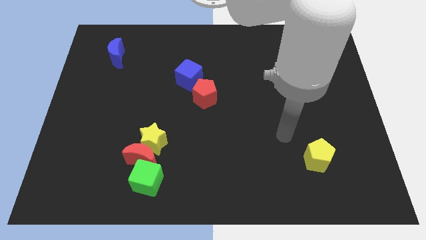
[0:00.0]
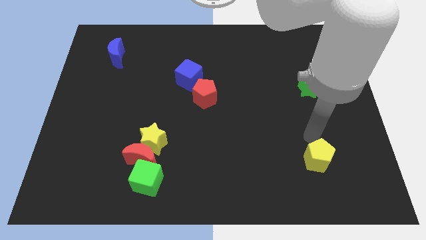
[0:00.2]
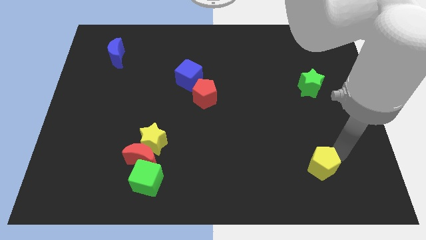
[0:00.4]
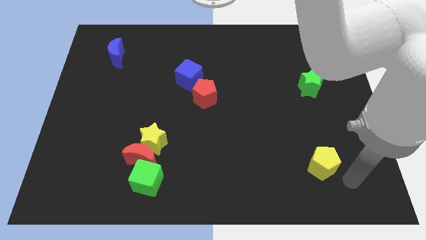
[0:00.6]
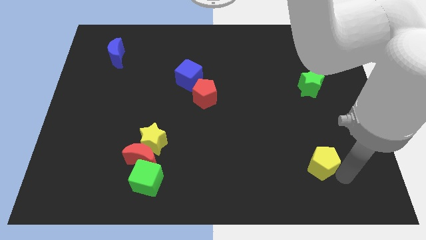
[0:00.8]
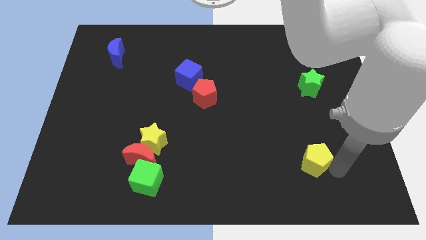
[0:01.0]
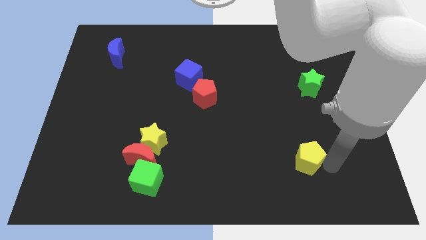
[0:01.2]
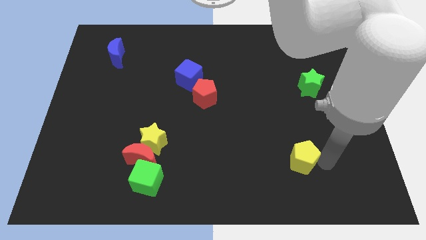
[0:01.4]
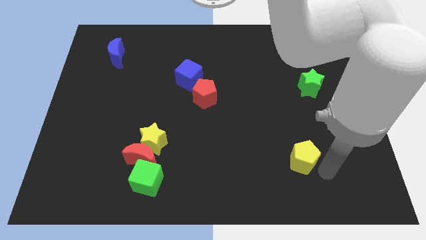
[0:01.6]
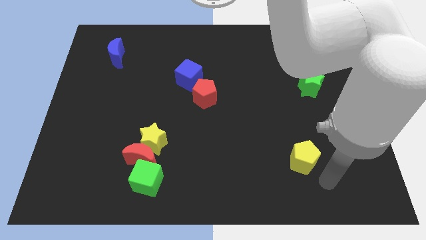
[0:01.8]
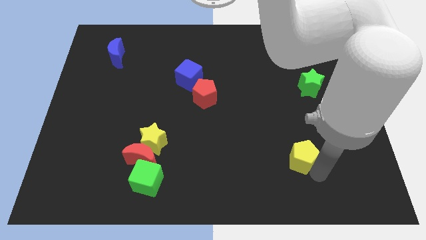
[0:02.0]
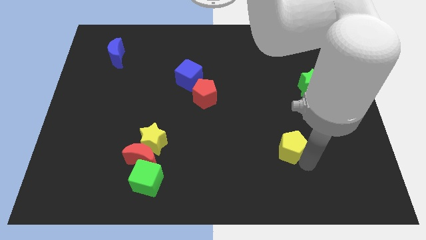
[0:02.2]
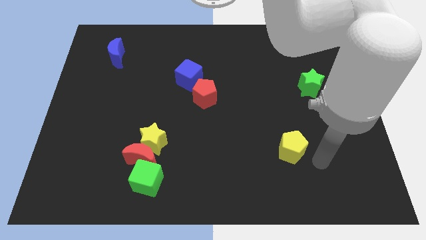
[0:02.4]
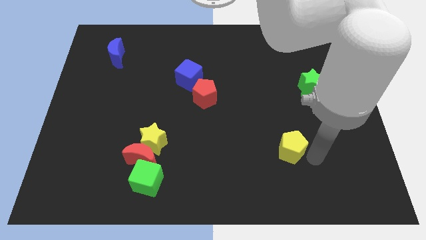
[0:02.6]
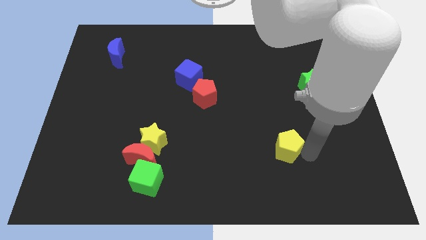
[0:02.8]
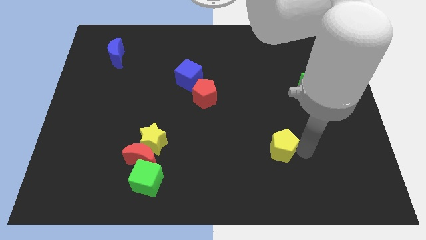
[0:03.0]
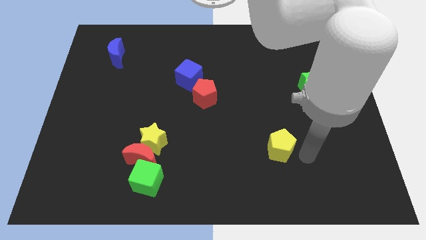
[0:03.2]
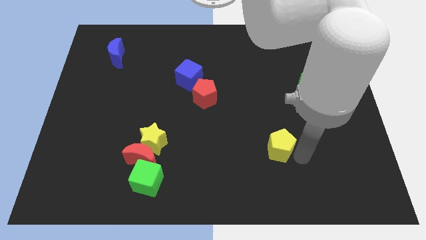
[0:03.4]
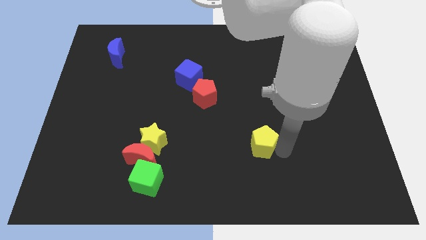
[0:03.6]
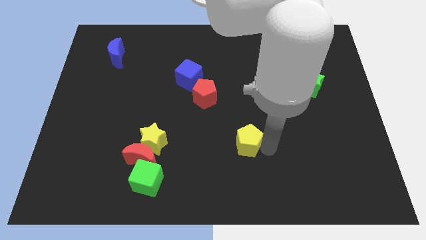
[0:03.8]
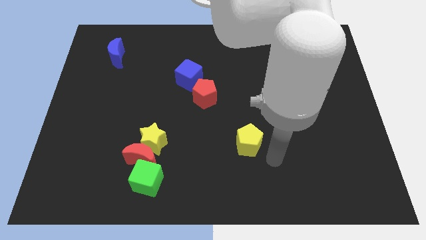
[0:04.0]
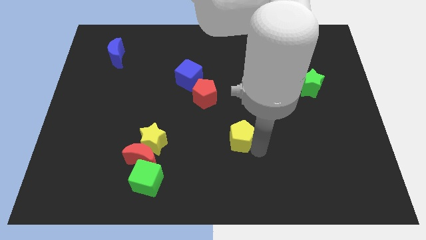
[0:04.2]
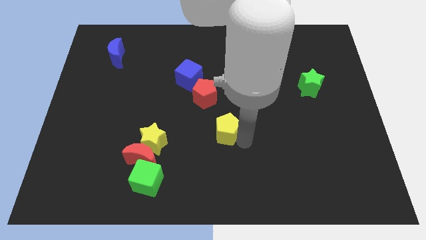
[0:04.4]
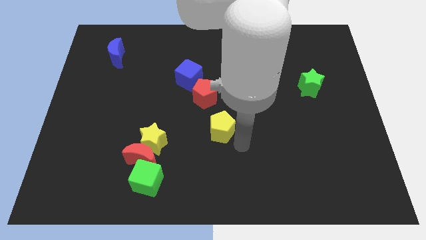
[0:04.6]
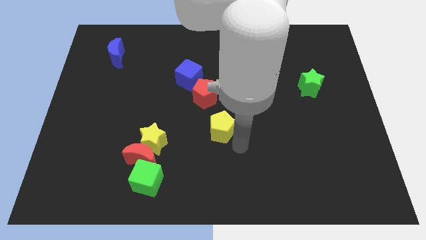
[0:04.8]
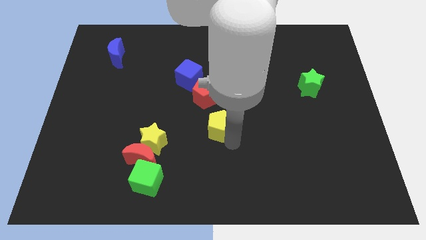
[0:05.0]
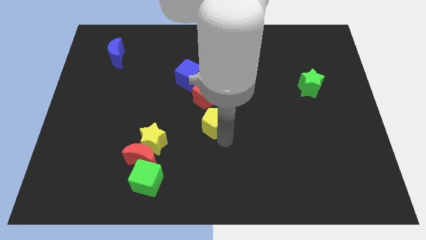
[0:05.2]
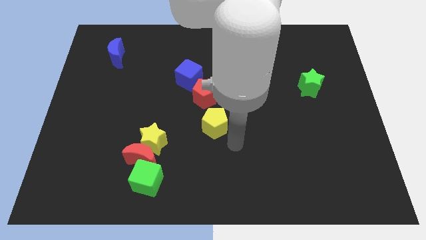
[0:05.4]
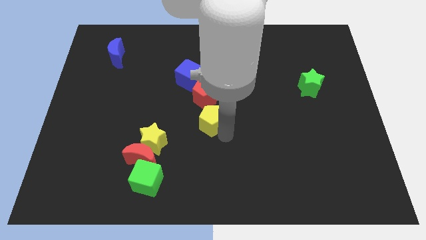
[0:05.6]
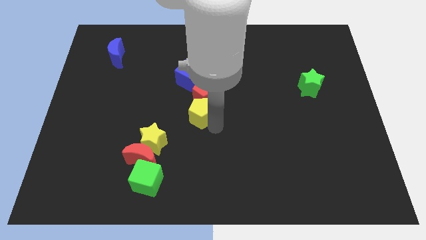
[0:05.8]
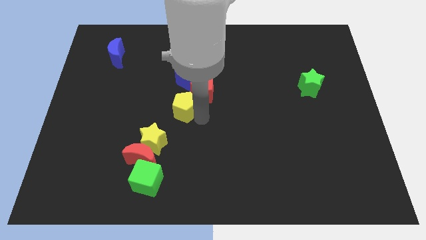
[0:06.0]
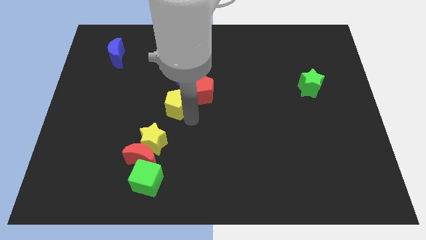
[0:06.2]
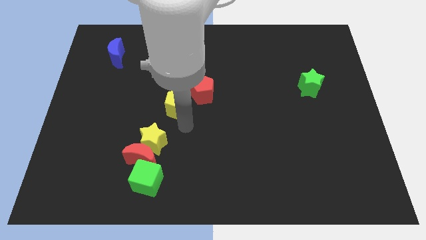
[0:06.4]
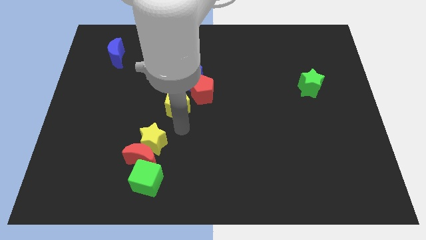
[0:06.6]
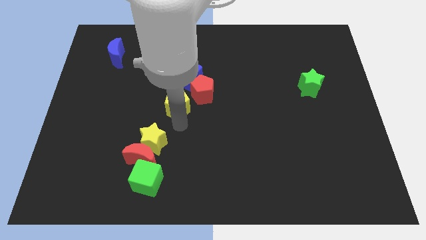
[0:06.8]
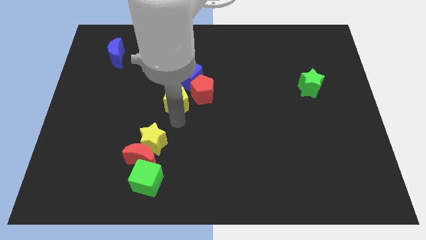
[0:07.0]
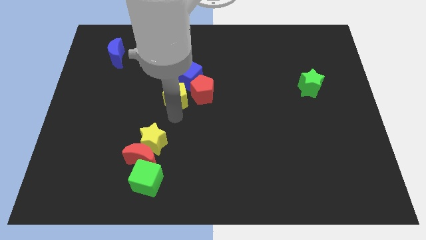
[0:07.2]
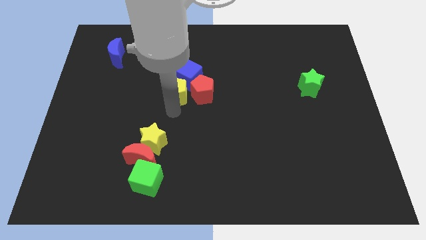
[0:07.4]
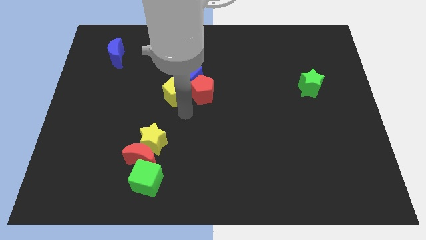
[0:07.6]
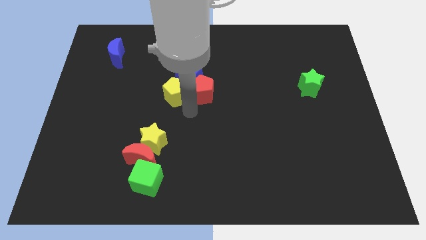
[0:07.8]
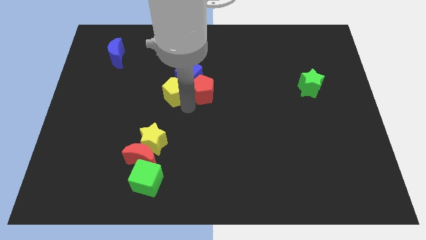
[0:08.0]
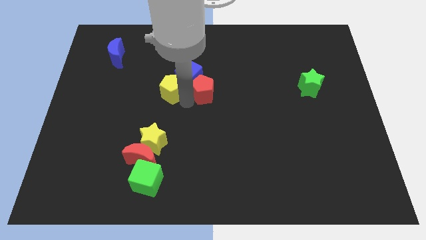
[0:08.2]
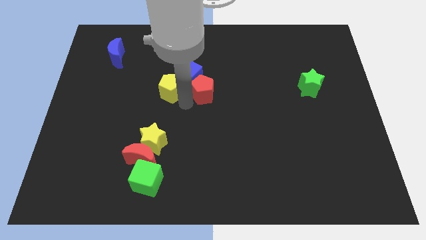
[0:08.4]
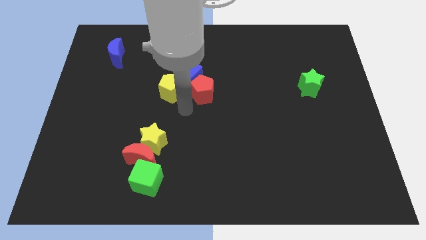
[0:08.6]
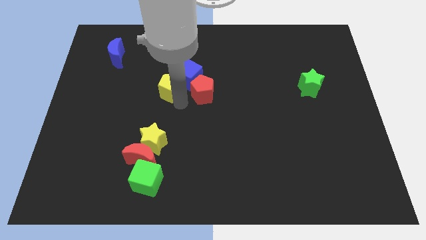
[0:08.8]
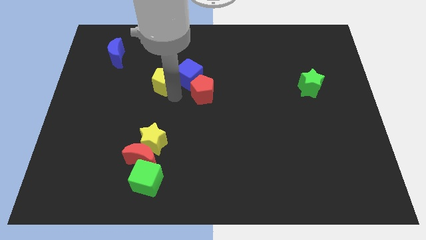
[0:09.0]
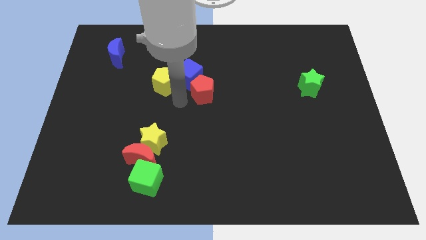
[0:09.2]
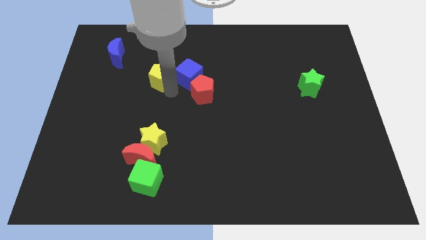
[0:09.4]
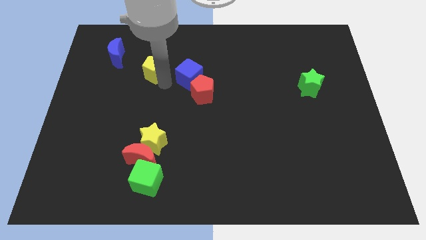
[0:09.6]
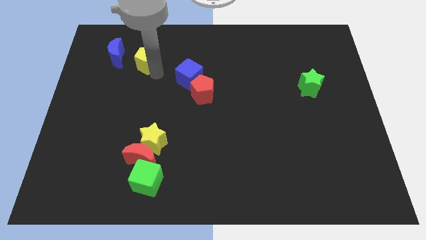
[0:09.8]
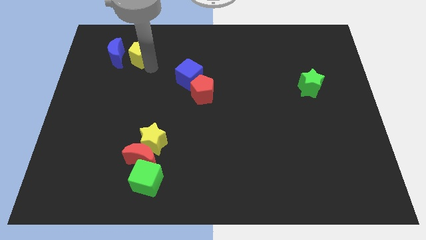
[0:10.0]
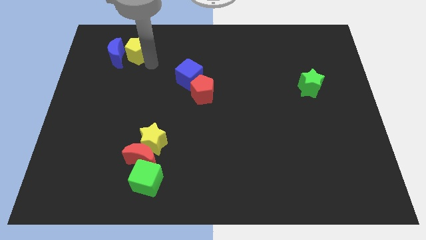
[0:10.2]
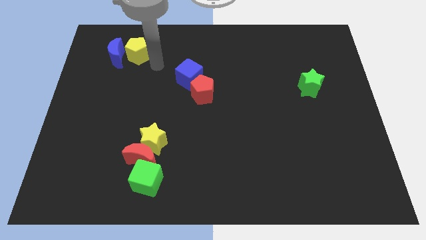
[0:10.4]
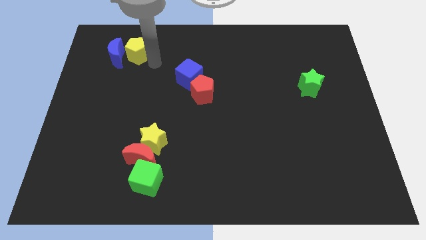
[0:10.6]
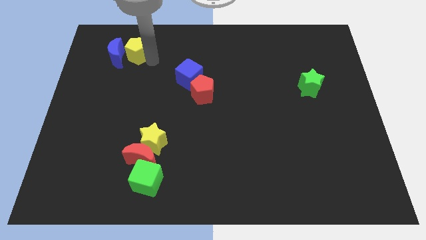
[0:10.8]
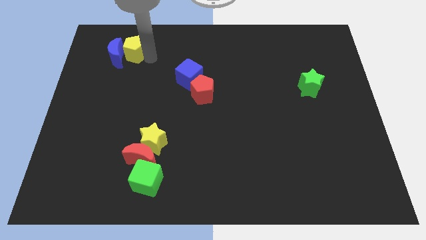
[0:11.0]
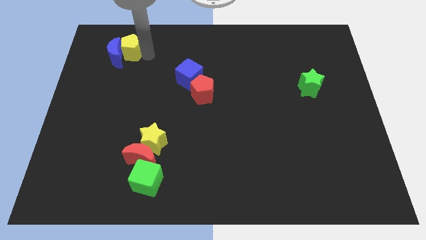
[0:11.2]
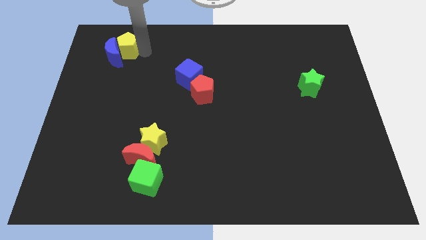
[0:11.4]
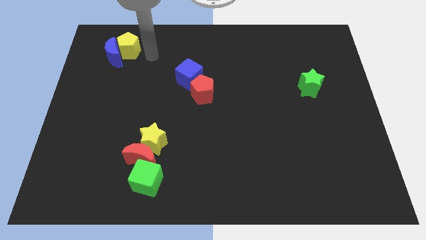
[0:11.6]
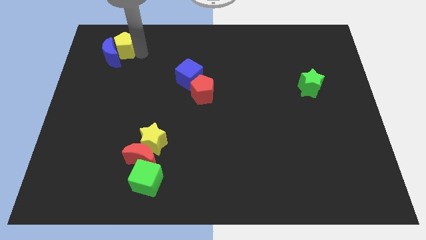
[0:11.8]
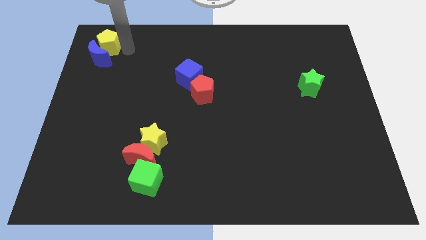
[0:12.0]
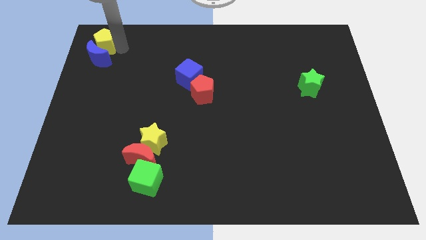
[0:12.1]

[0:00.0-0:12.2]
put the yellow pentagon to the top left
